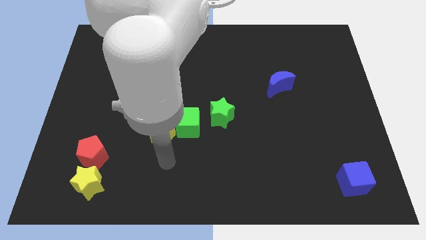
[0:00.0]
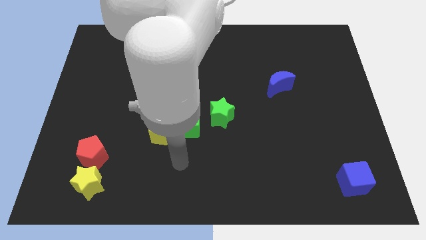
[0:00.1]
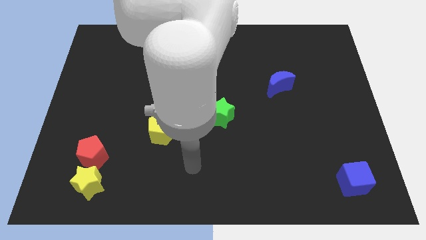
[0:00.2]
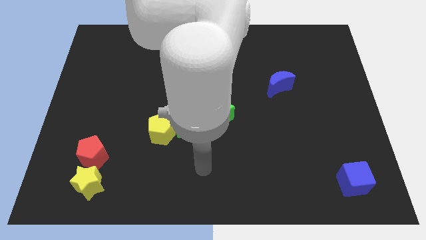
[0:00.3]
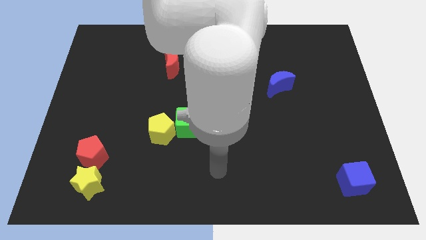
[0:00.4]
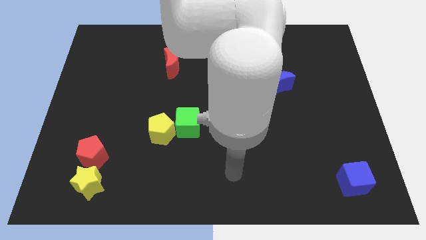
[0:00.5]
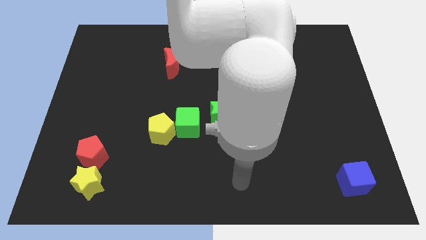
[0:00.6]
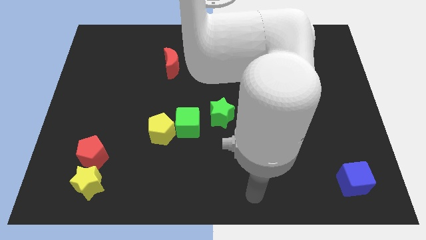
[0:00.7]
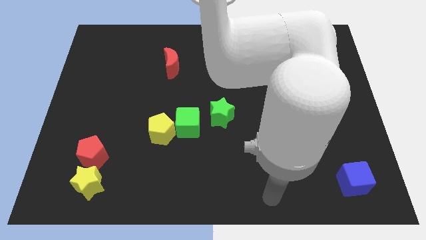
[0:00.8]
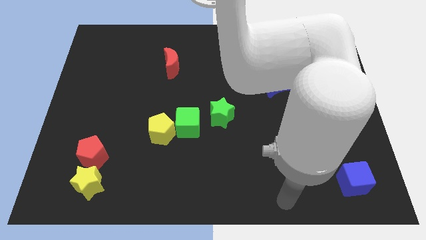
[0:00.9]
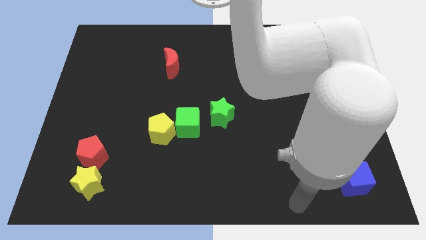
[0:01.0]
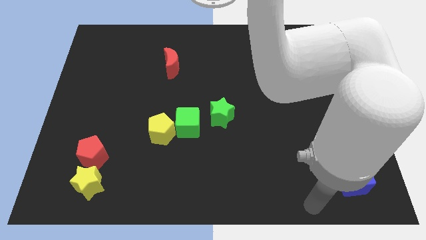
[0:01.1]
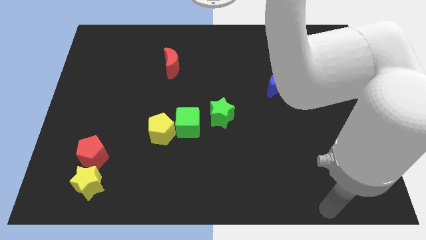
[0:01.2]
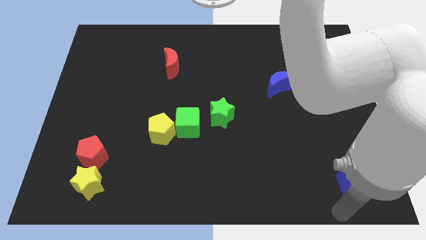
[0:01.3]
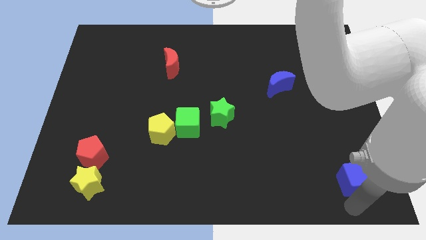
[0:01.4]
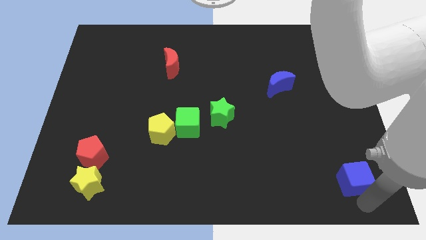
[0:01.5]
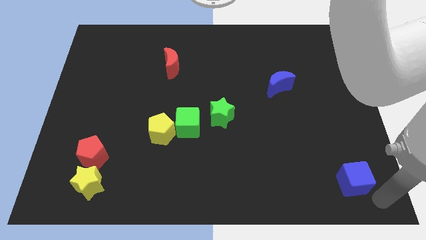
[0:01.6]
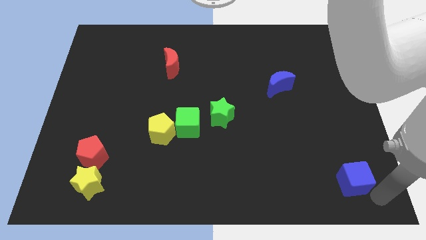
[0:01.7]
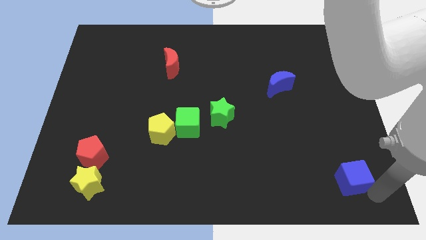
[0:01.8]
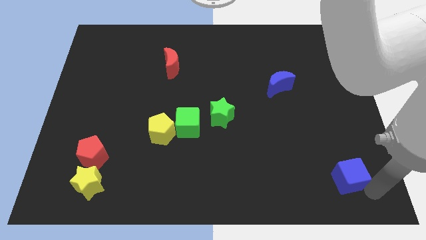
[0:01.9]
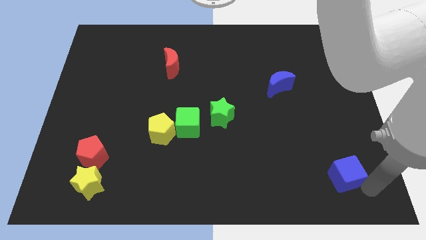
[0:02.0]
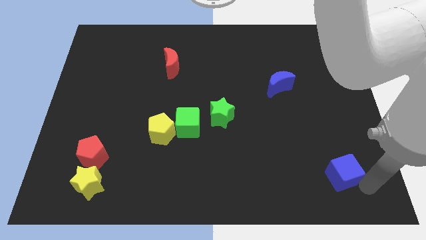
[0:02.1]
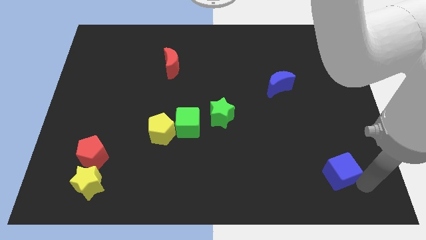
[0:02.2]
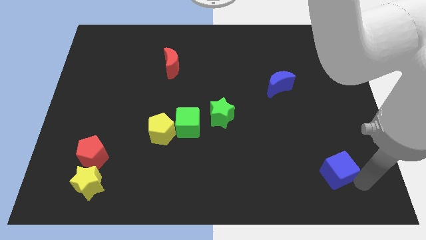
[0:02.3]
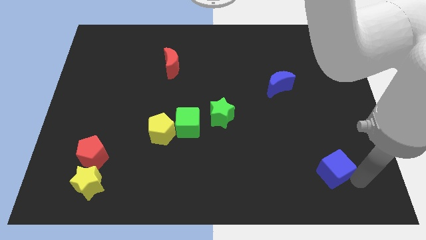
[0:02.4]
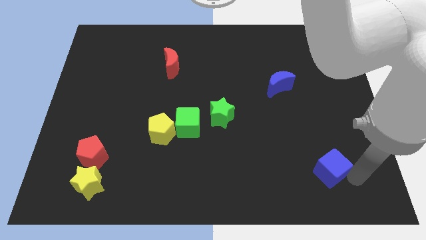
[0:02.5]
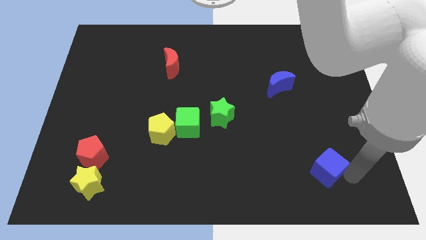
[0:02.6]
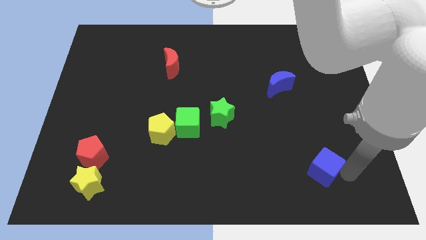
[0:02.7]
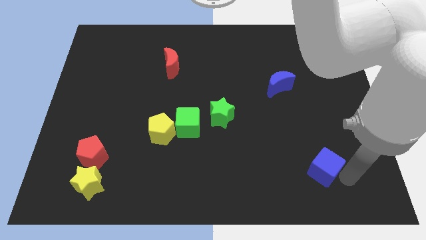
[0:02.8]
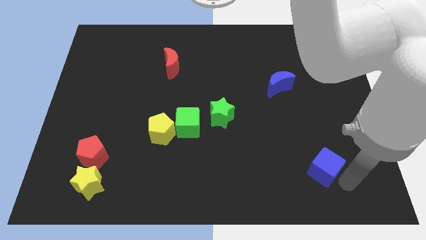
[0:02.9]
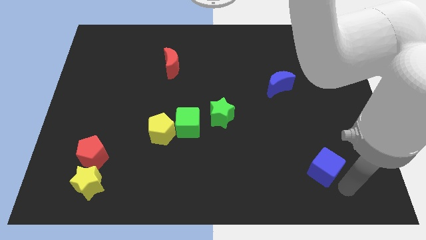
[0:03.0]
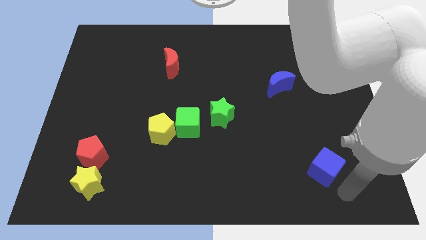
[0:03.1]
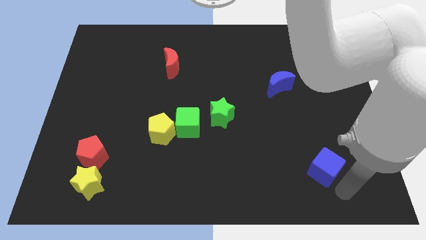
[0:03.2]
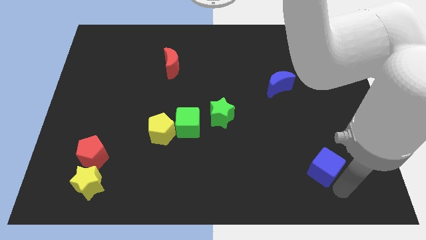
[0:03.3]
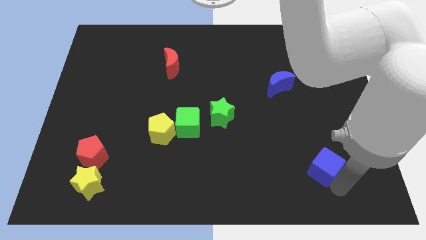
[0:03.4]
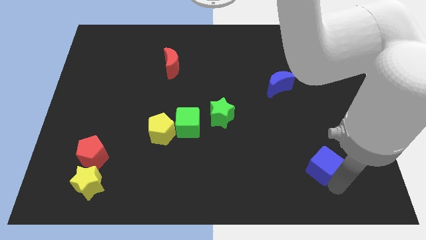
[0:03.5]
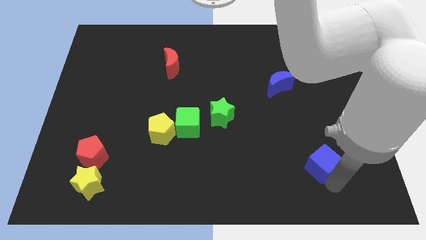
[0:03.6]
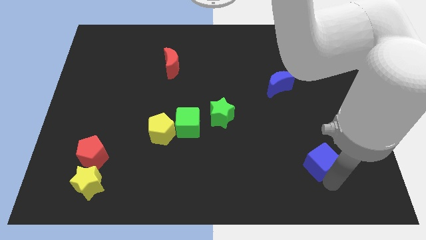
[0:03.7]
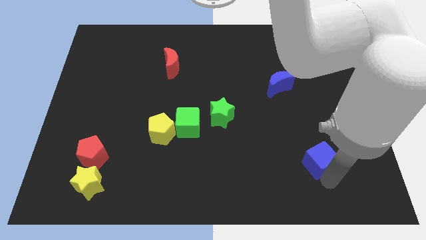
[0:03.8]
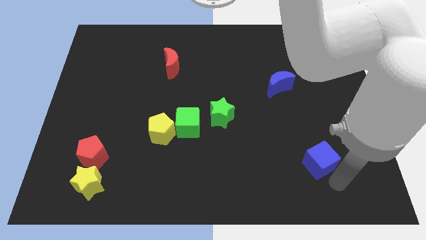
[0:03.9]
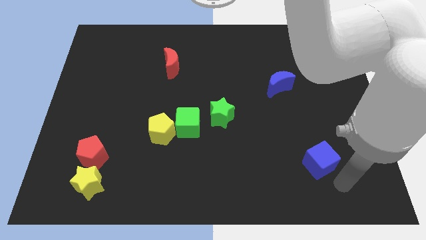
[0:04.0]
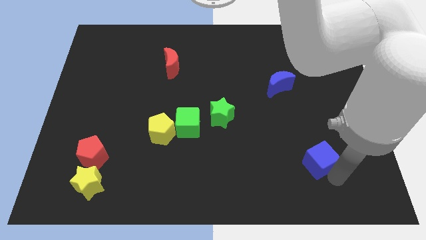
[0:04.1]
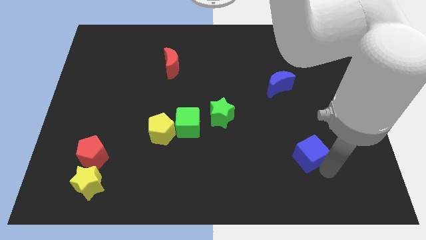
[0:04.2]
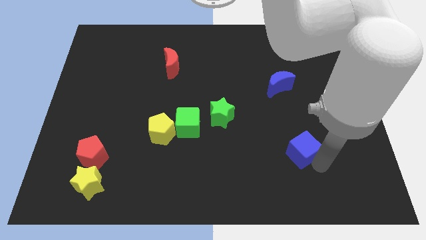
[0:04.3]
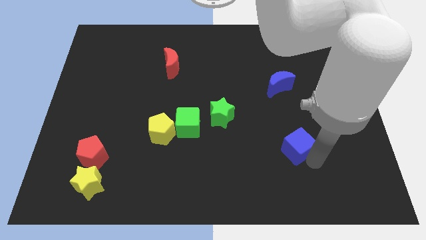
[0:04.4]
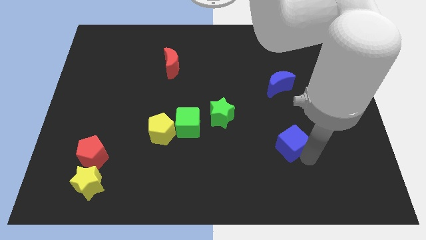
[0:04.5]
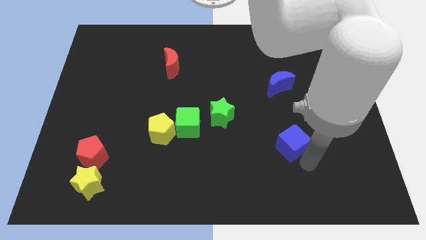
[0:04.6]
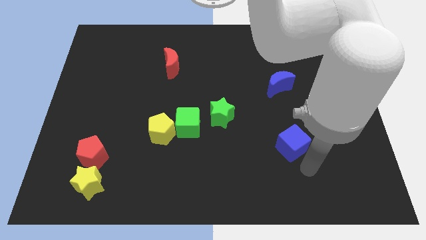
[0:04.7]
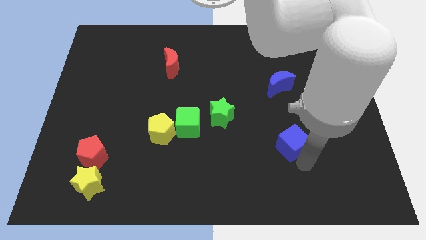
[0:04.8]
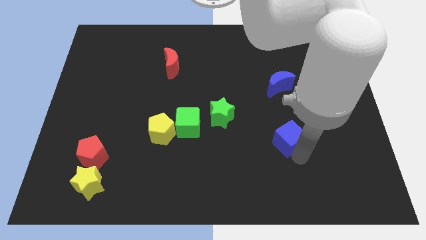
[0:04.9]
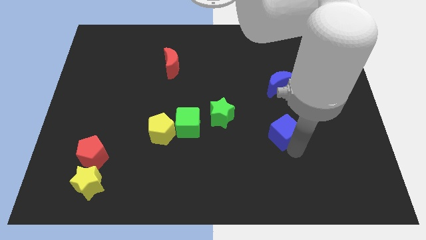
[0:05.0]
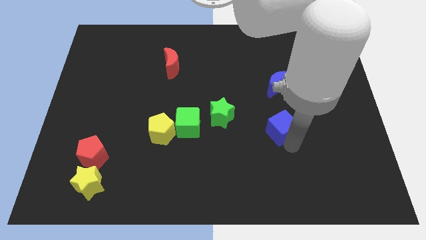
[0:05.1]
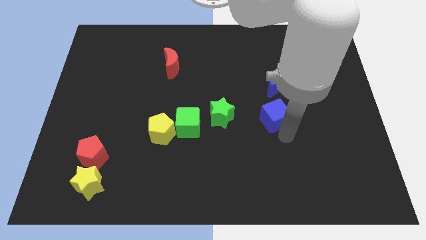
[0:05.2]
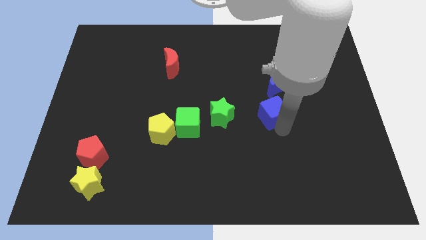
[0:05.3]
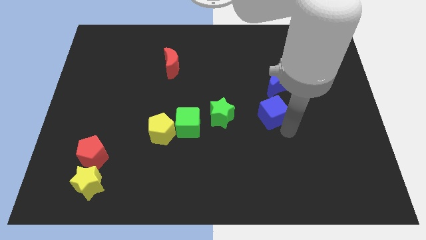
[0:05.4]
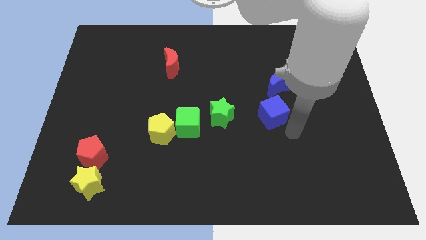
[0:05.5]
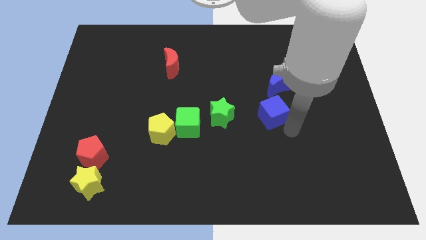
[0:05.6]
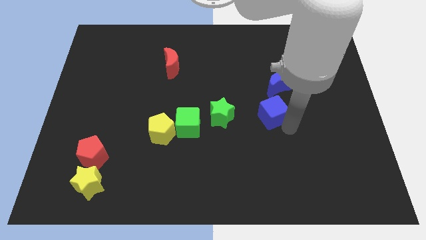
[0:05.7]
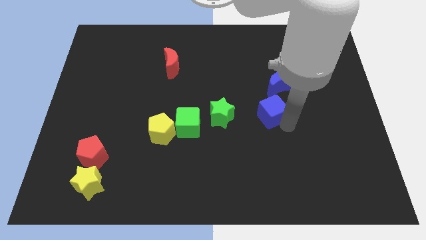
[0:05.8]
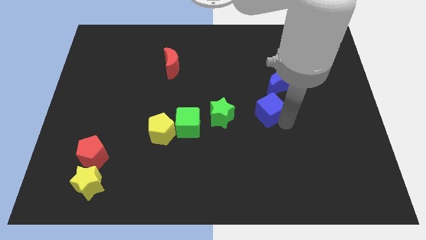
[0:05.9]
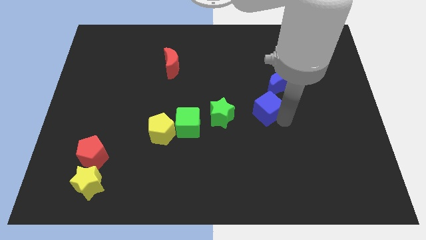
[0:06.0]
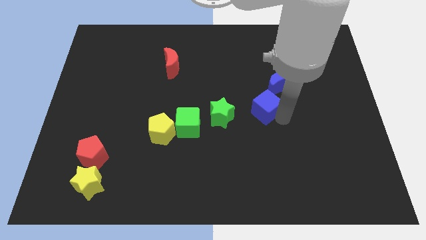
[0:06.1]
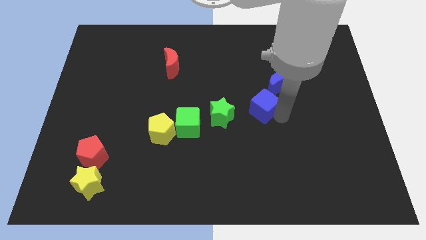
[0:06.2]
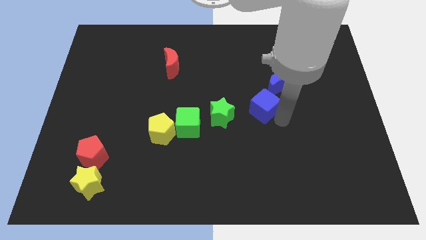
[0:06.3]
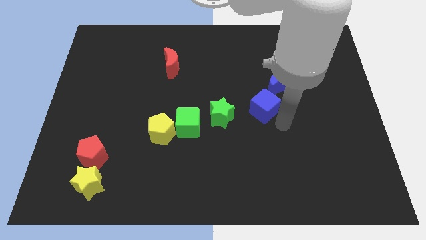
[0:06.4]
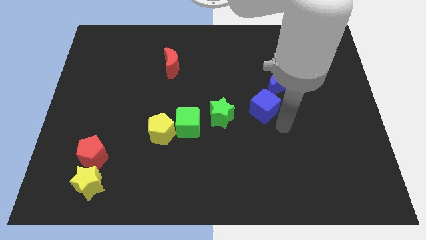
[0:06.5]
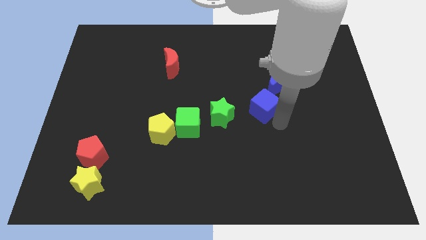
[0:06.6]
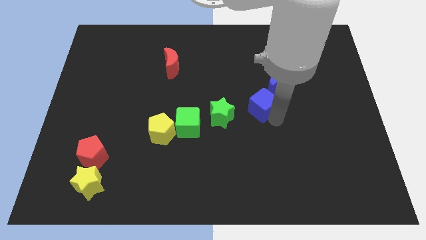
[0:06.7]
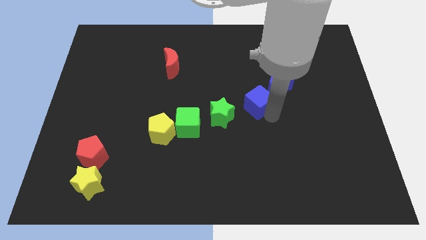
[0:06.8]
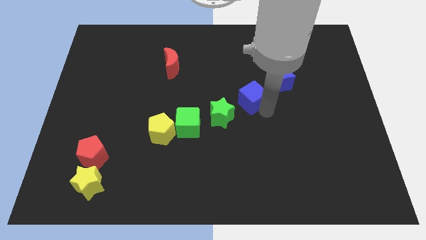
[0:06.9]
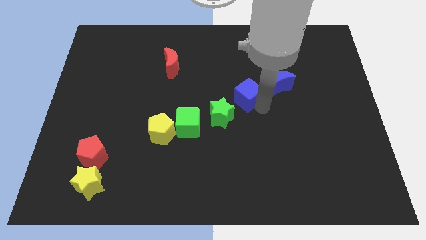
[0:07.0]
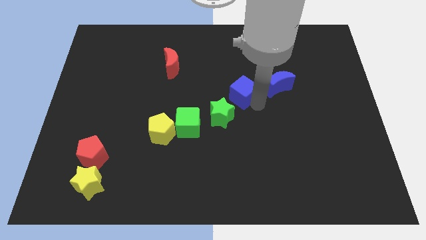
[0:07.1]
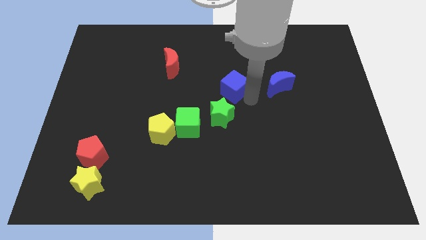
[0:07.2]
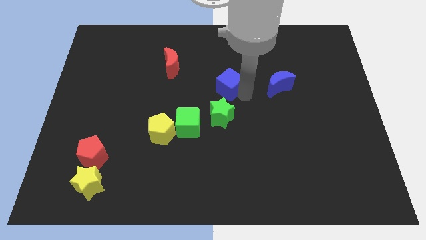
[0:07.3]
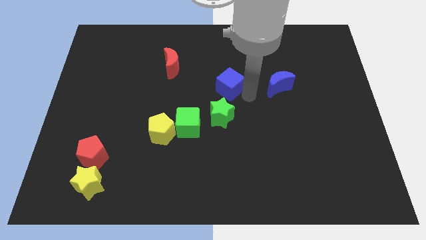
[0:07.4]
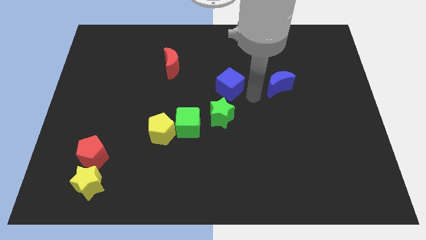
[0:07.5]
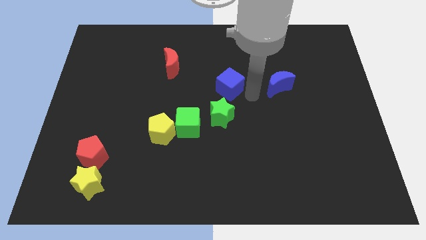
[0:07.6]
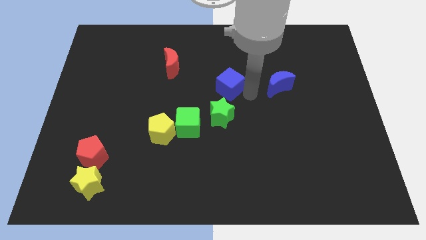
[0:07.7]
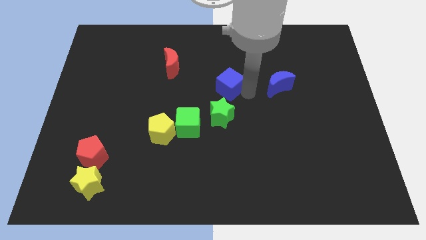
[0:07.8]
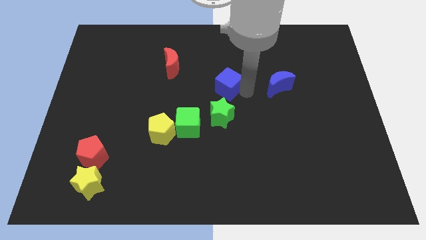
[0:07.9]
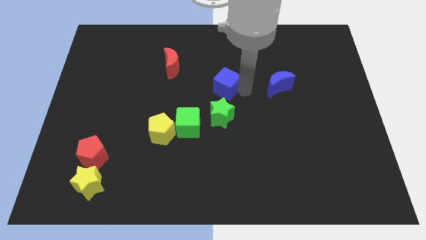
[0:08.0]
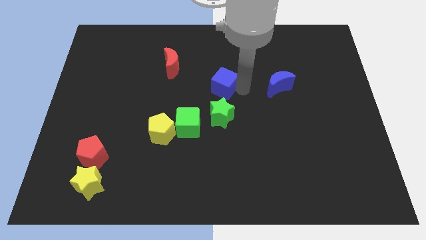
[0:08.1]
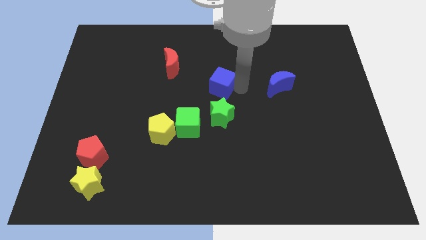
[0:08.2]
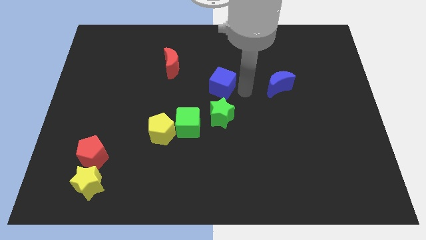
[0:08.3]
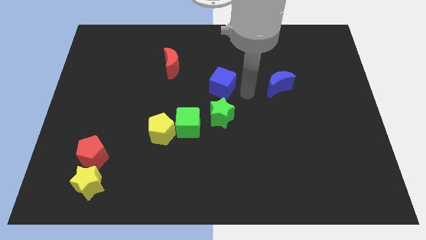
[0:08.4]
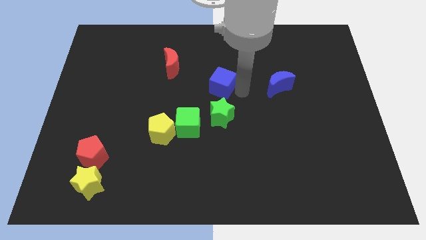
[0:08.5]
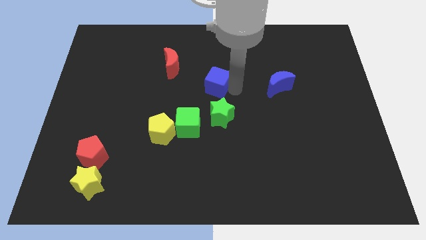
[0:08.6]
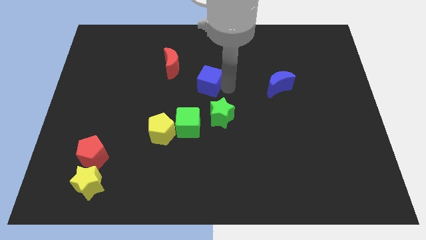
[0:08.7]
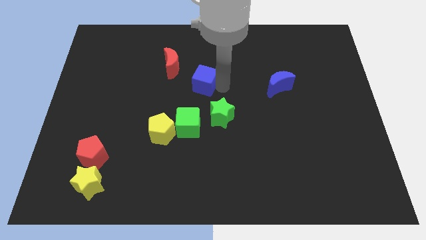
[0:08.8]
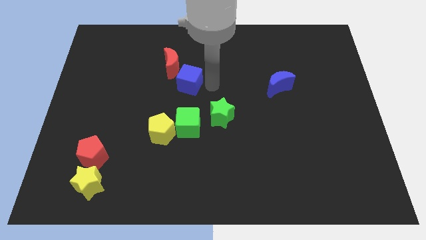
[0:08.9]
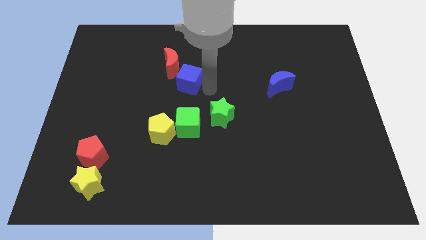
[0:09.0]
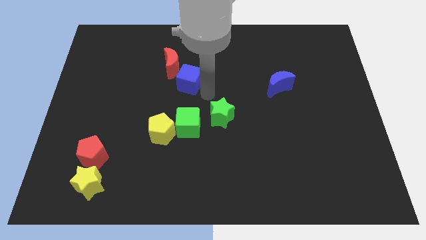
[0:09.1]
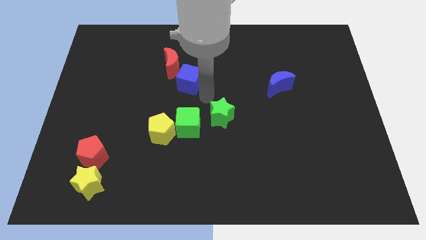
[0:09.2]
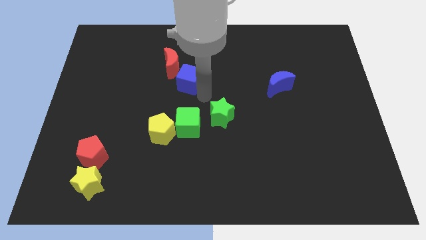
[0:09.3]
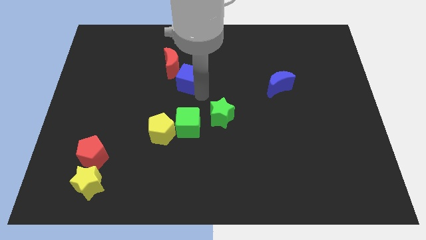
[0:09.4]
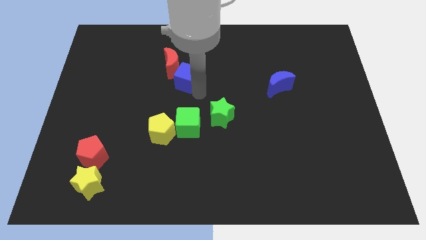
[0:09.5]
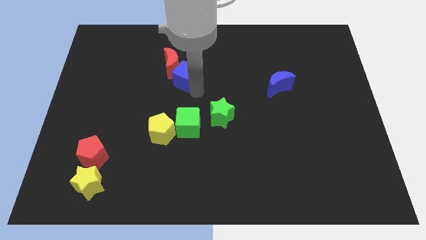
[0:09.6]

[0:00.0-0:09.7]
move the blue cube next to the red moon
